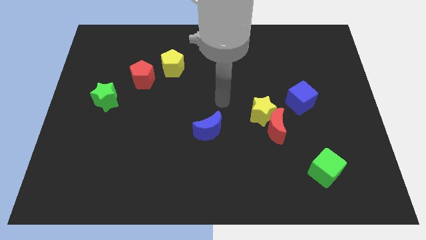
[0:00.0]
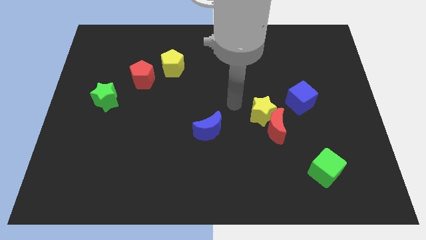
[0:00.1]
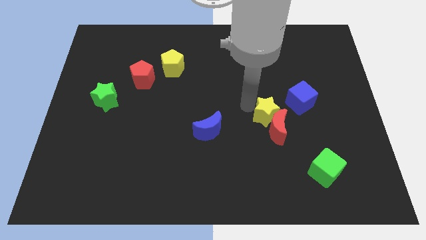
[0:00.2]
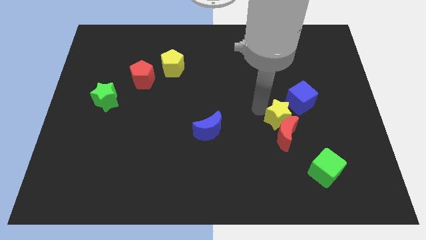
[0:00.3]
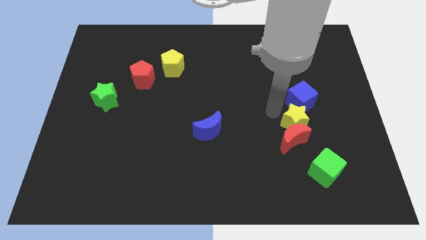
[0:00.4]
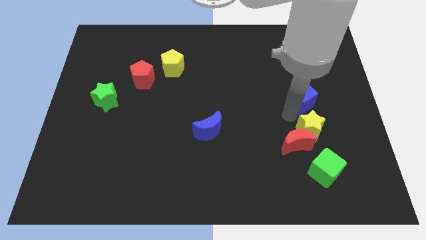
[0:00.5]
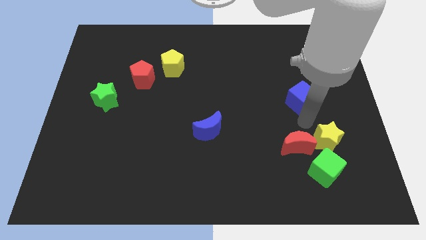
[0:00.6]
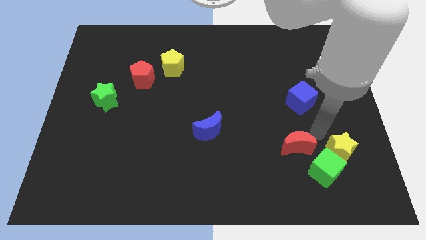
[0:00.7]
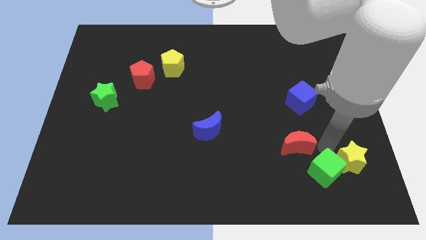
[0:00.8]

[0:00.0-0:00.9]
move the red moon away from the yellow star

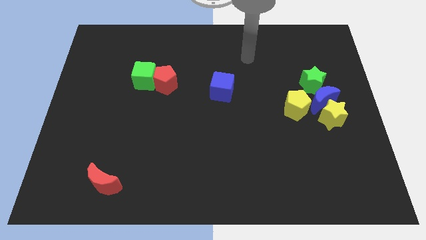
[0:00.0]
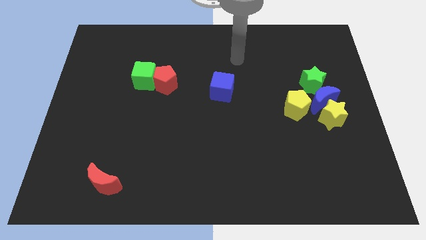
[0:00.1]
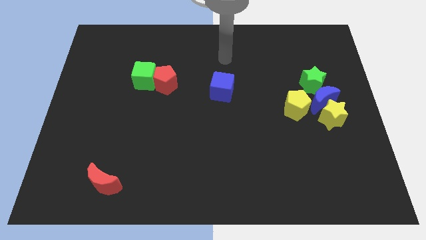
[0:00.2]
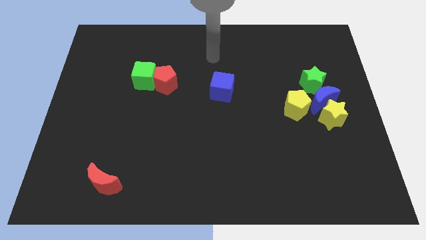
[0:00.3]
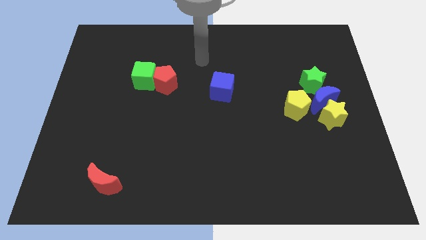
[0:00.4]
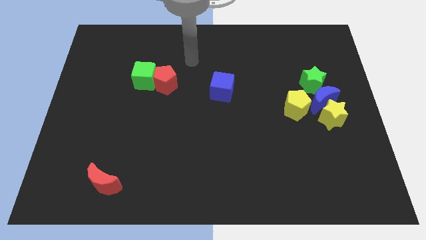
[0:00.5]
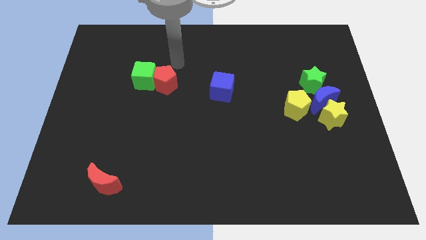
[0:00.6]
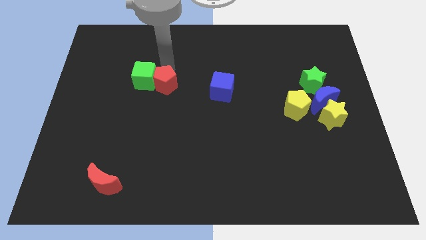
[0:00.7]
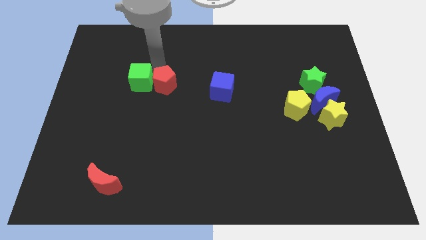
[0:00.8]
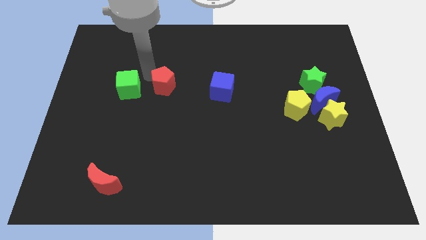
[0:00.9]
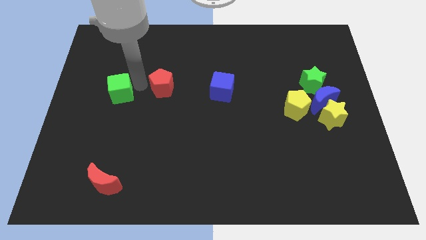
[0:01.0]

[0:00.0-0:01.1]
separate the red pentagon from the green cube

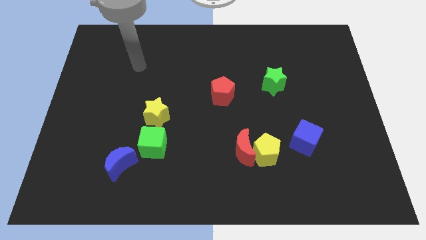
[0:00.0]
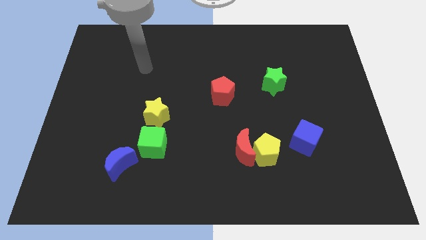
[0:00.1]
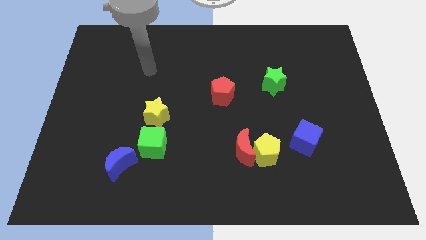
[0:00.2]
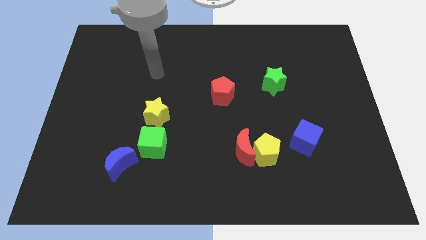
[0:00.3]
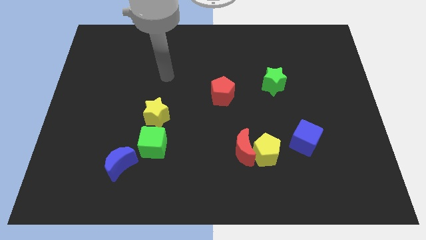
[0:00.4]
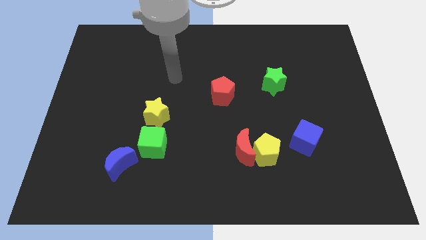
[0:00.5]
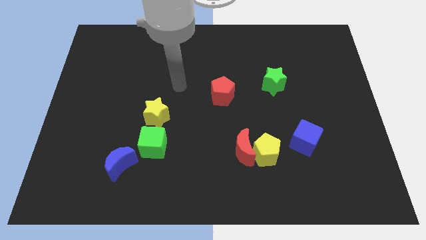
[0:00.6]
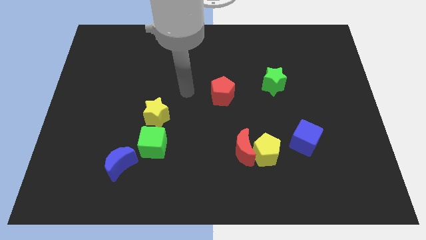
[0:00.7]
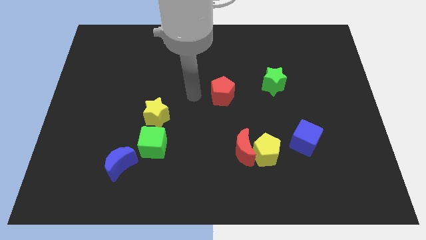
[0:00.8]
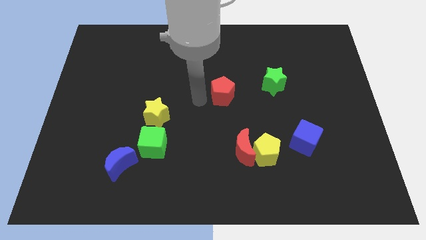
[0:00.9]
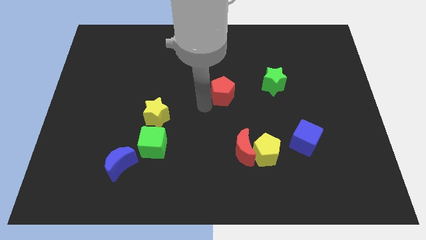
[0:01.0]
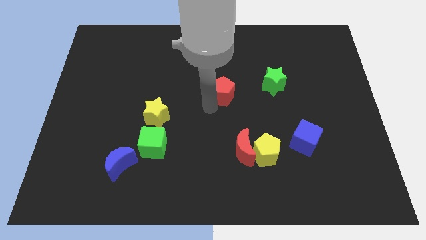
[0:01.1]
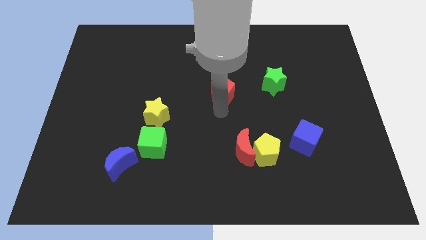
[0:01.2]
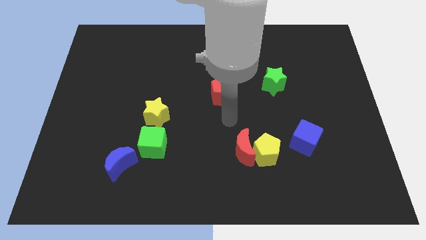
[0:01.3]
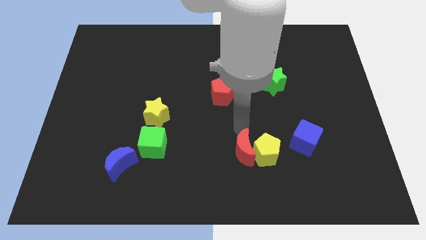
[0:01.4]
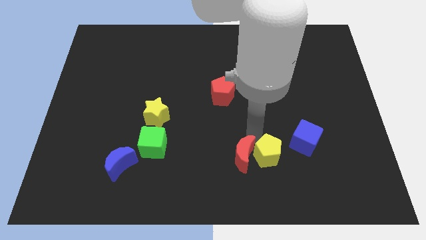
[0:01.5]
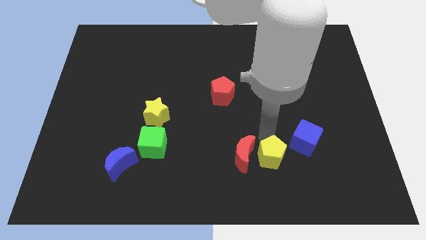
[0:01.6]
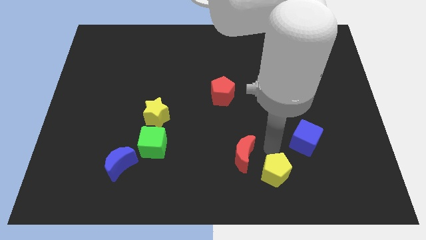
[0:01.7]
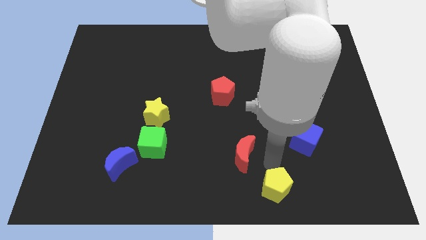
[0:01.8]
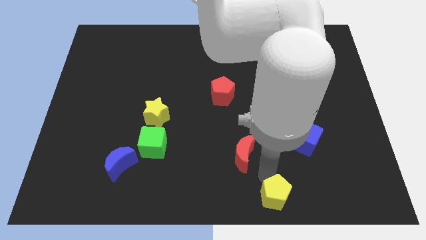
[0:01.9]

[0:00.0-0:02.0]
separate the red moon from the yellow pentagon

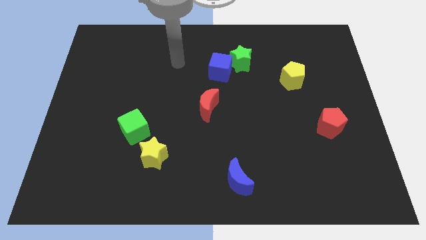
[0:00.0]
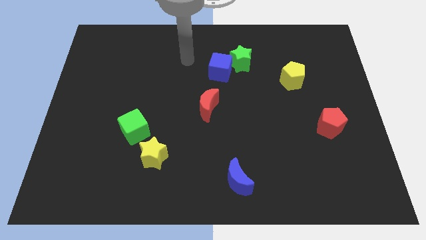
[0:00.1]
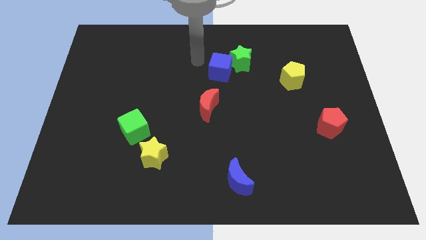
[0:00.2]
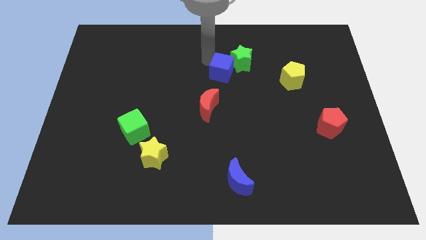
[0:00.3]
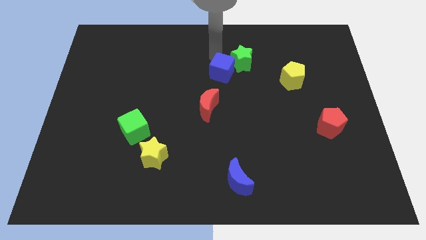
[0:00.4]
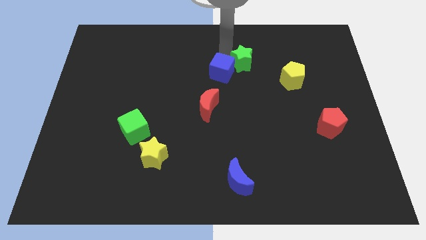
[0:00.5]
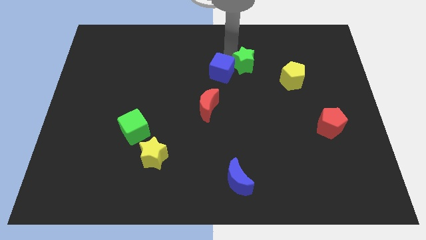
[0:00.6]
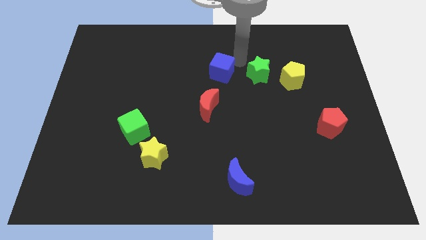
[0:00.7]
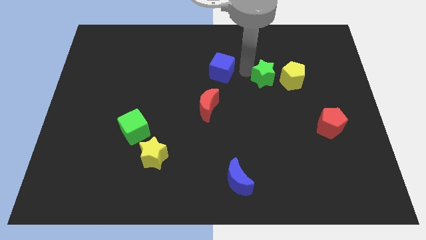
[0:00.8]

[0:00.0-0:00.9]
pull the blue cube apart from the green star

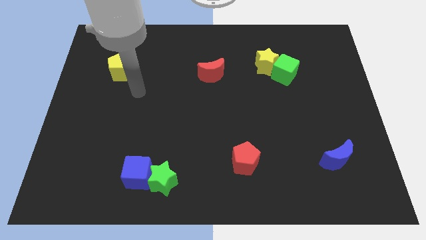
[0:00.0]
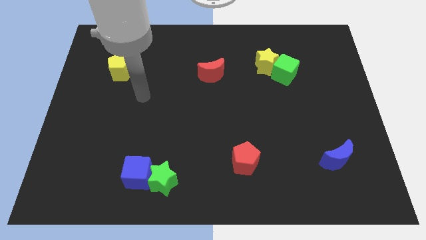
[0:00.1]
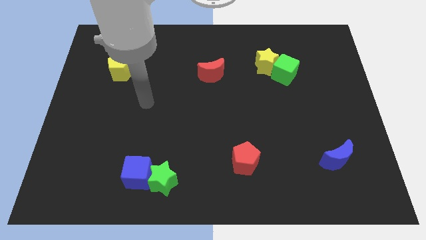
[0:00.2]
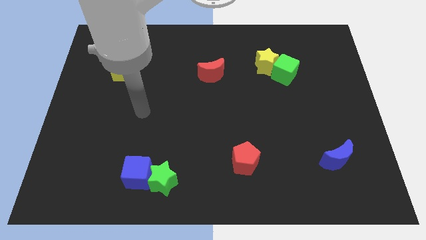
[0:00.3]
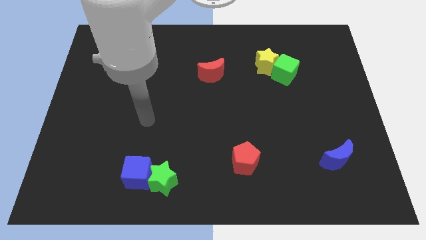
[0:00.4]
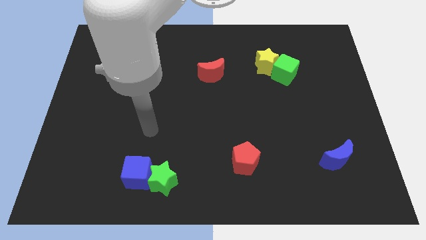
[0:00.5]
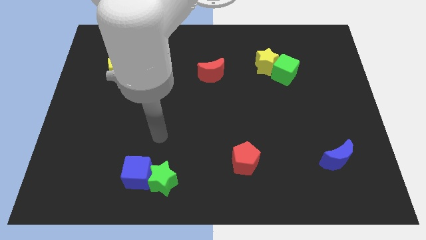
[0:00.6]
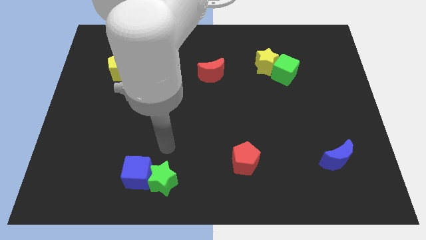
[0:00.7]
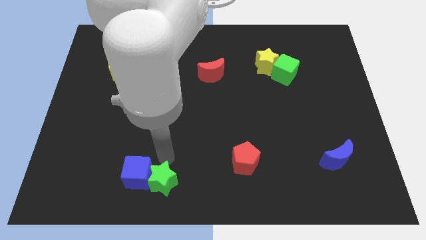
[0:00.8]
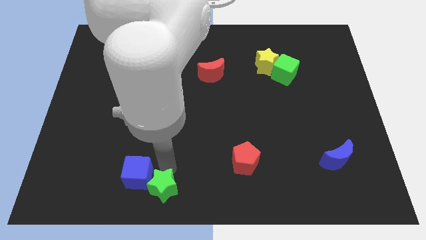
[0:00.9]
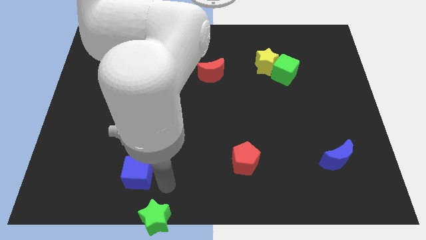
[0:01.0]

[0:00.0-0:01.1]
separate the blue cube from the green star

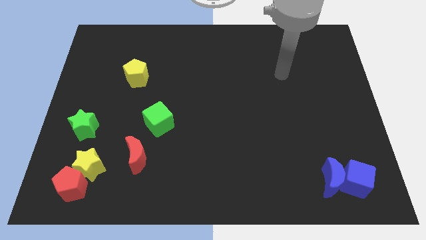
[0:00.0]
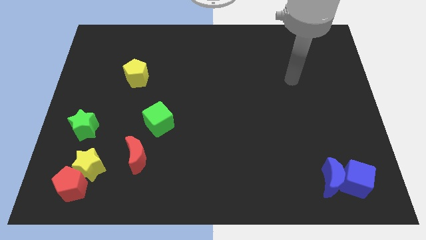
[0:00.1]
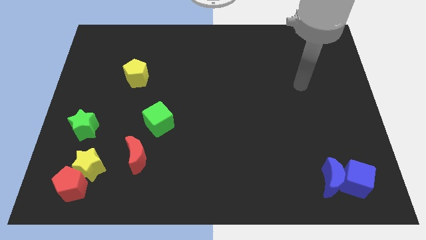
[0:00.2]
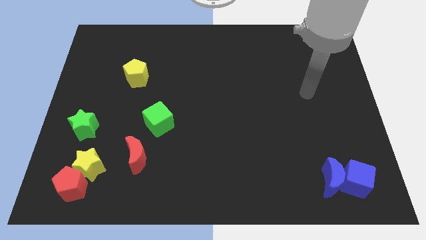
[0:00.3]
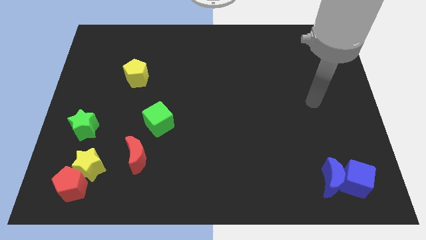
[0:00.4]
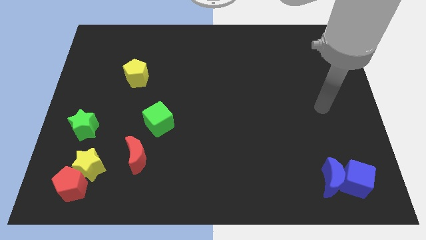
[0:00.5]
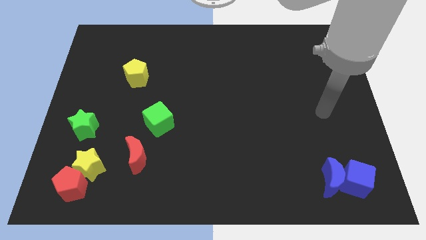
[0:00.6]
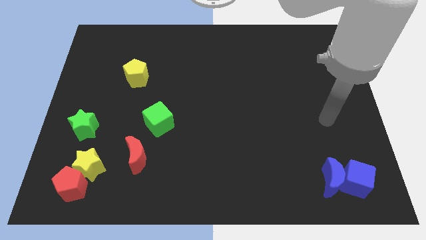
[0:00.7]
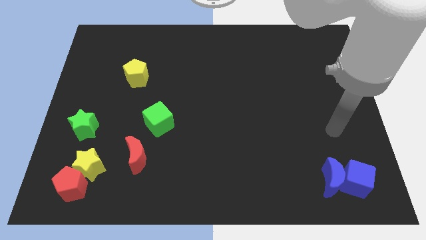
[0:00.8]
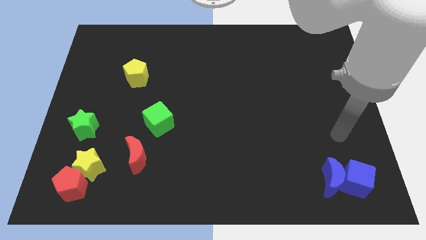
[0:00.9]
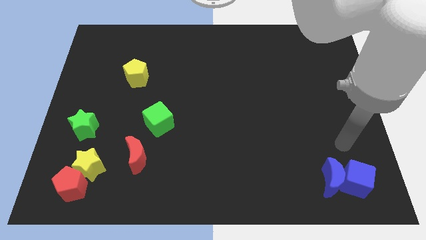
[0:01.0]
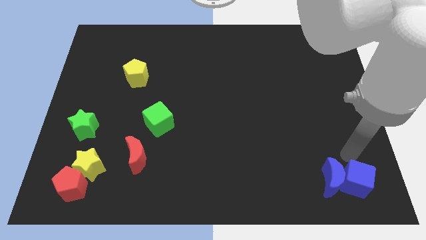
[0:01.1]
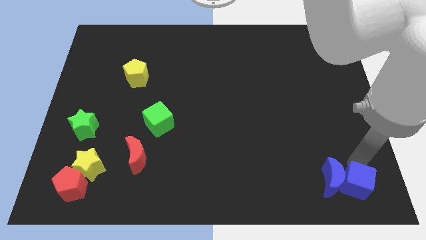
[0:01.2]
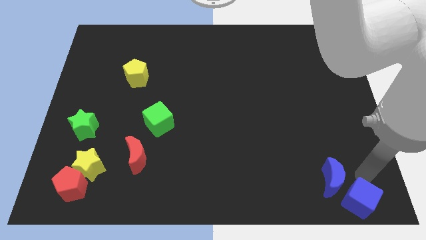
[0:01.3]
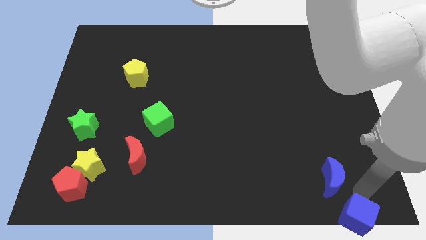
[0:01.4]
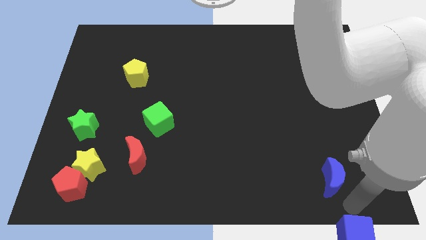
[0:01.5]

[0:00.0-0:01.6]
pull the blue moon apart from the blue cube

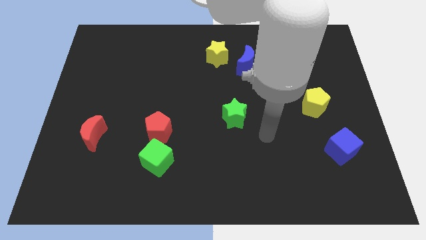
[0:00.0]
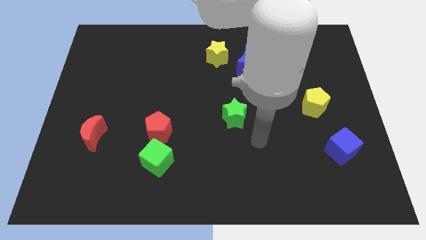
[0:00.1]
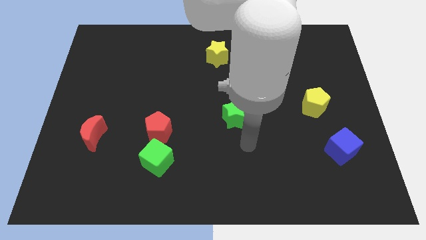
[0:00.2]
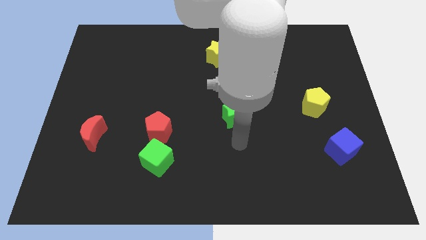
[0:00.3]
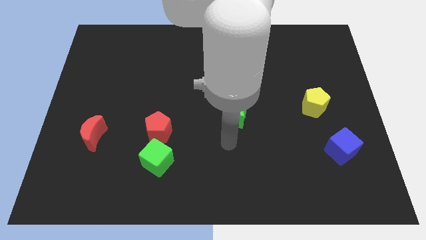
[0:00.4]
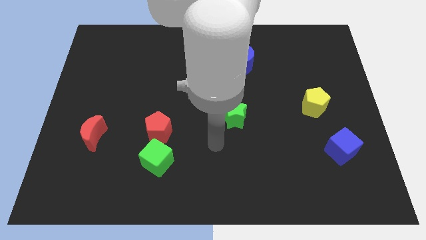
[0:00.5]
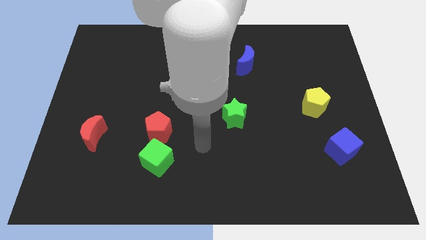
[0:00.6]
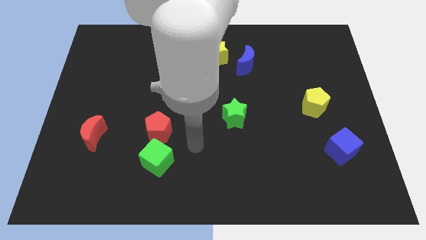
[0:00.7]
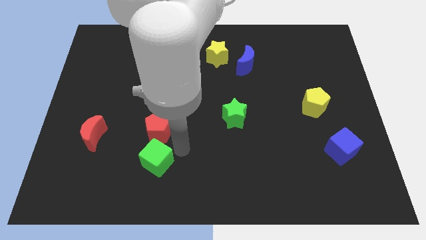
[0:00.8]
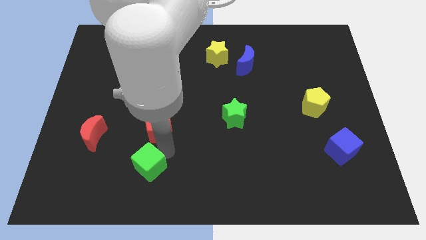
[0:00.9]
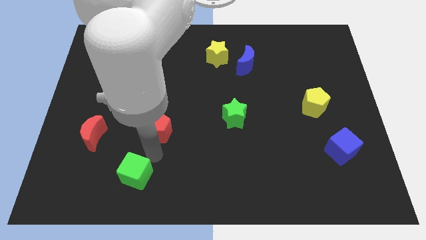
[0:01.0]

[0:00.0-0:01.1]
move the red pentagon away from the green cube

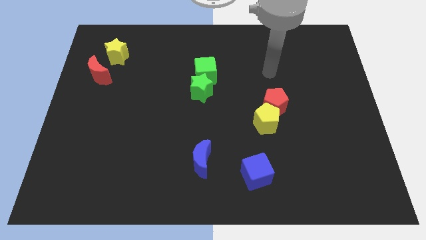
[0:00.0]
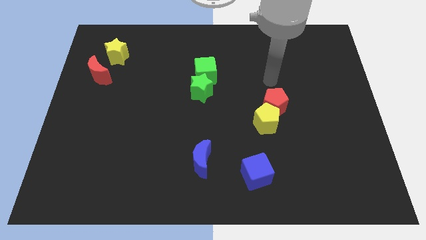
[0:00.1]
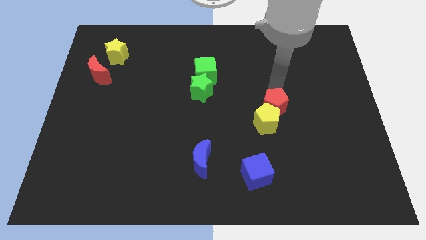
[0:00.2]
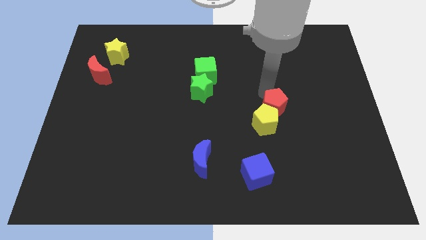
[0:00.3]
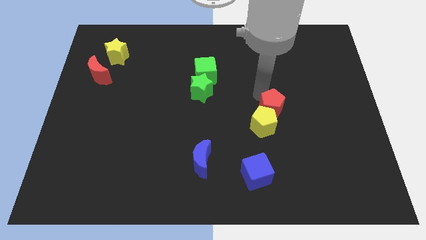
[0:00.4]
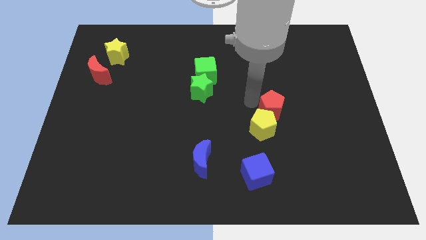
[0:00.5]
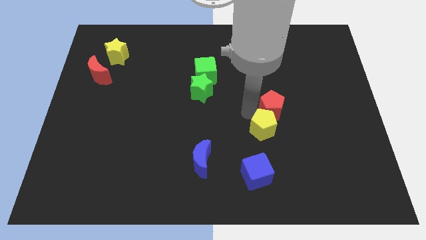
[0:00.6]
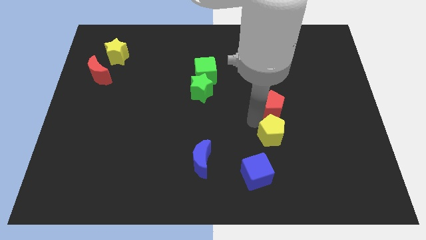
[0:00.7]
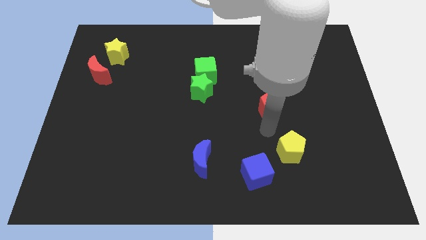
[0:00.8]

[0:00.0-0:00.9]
separate the red pentagon from the yellow pentagon
